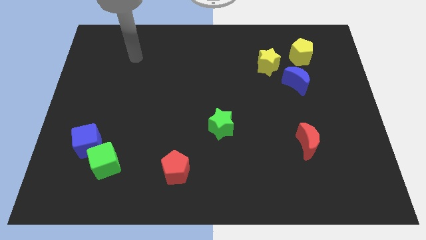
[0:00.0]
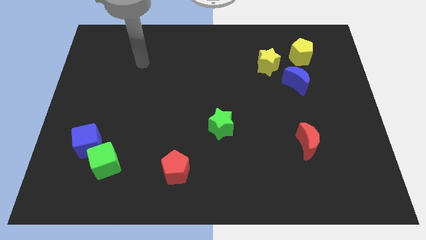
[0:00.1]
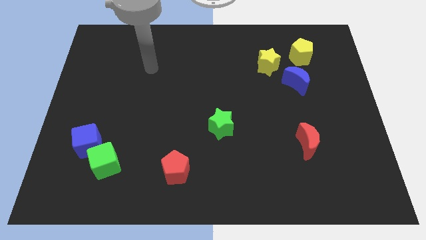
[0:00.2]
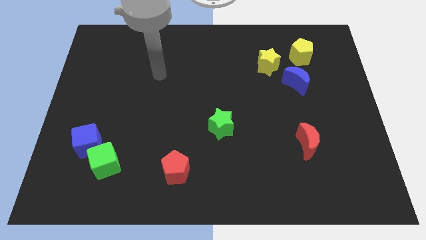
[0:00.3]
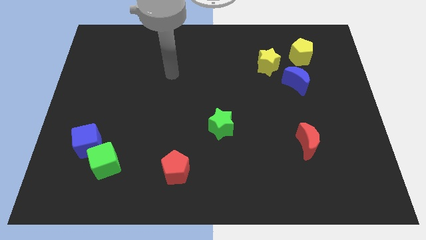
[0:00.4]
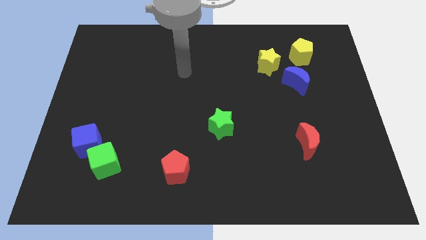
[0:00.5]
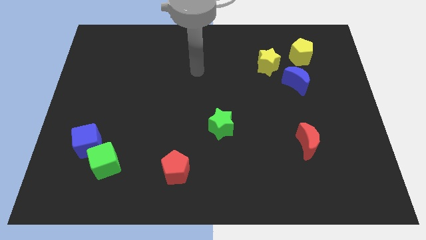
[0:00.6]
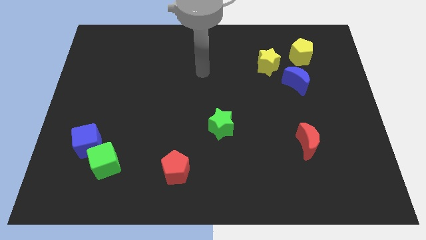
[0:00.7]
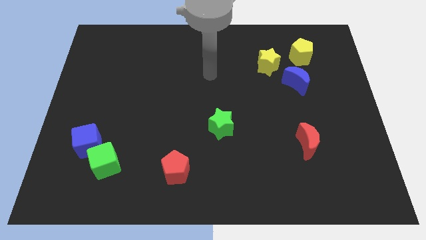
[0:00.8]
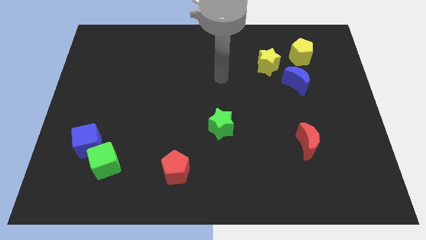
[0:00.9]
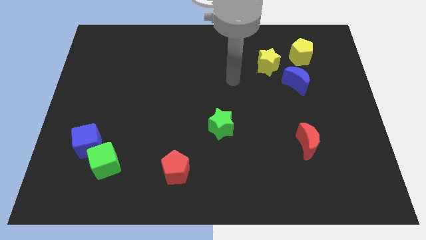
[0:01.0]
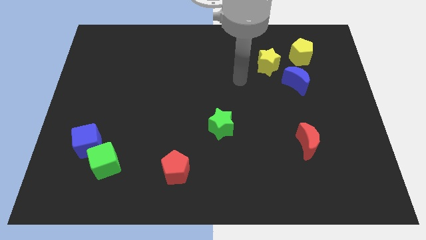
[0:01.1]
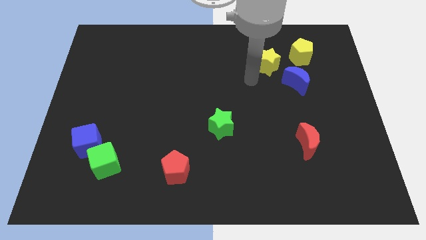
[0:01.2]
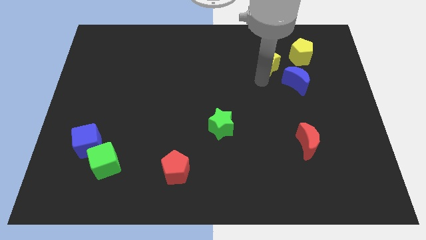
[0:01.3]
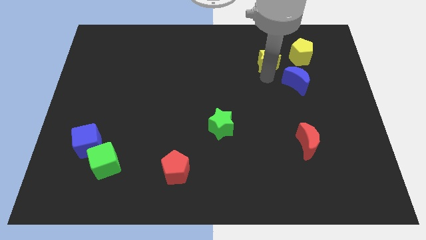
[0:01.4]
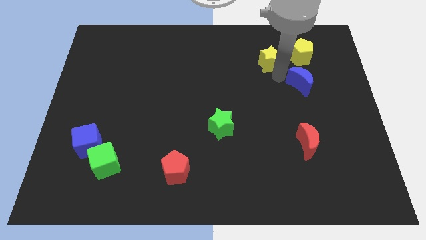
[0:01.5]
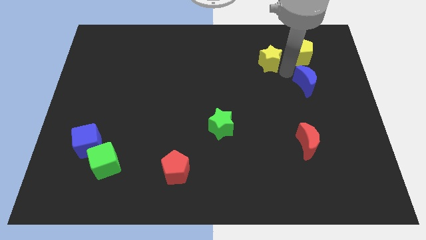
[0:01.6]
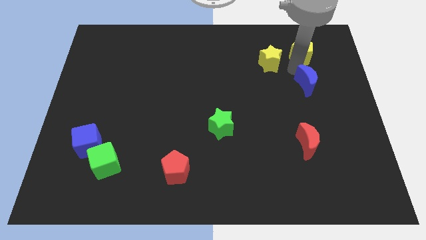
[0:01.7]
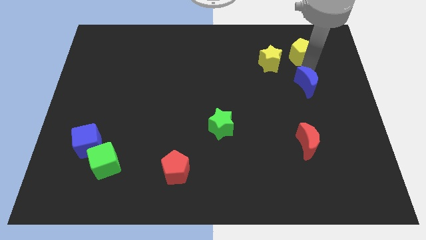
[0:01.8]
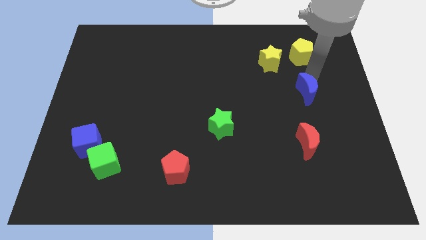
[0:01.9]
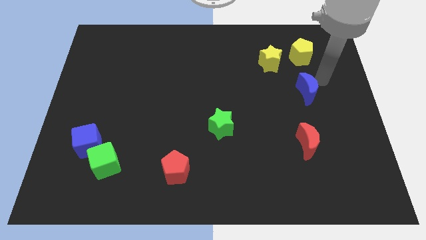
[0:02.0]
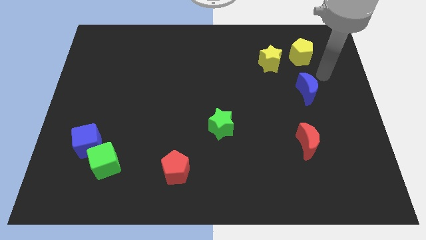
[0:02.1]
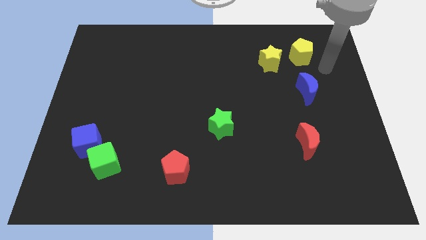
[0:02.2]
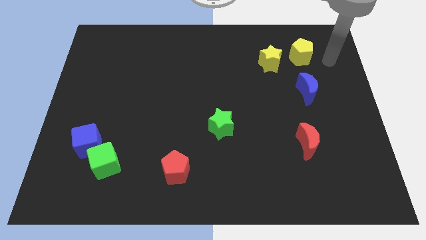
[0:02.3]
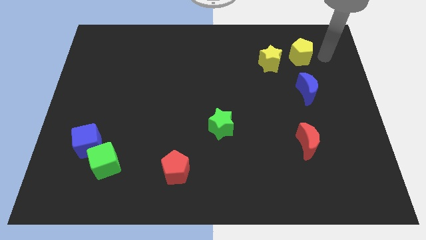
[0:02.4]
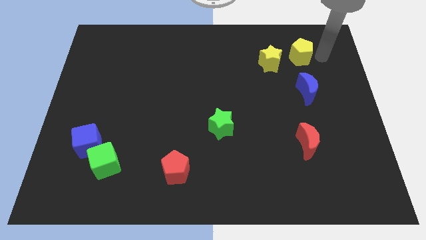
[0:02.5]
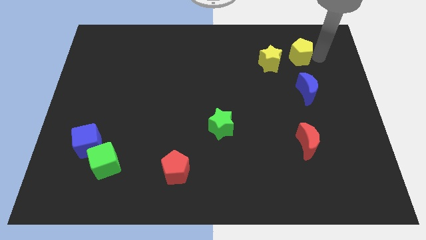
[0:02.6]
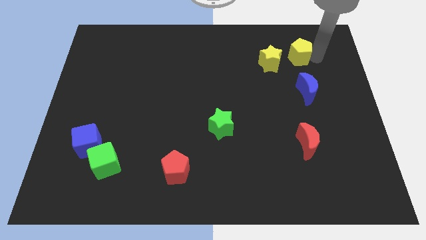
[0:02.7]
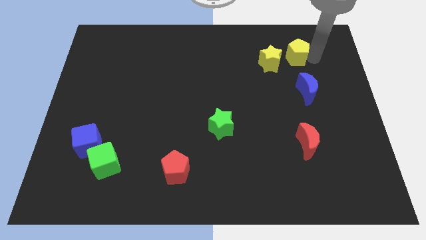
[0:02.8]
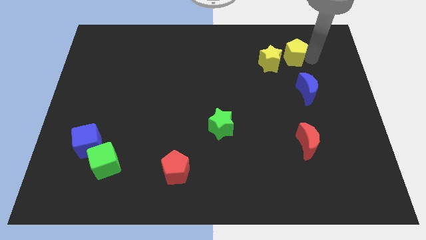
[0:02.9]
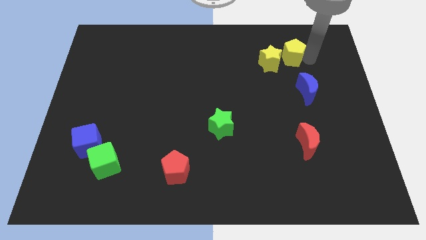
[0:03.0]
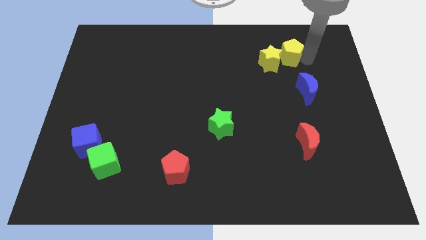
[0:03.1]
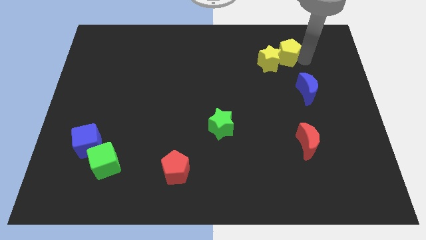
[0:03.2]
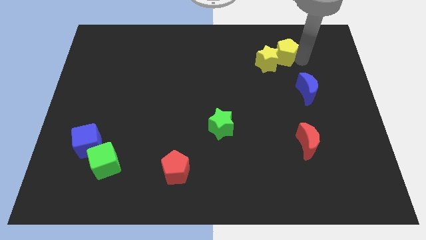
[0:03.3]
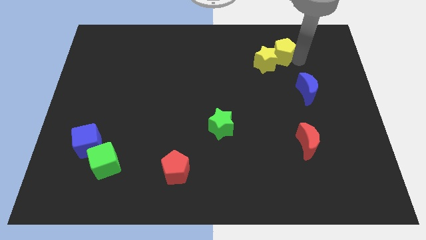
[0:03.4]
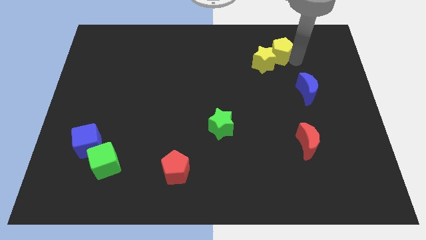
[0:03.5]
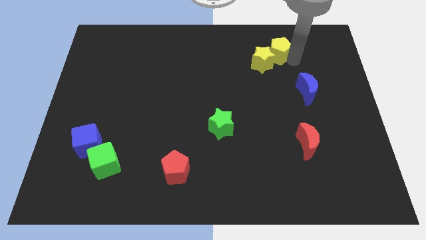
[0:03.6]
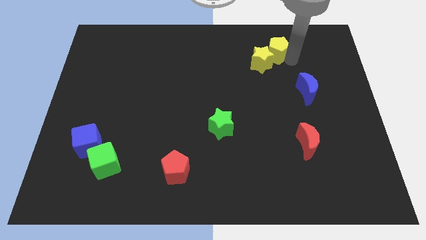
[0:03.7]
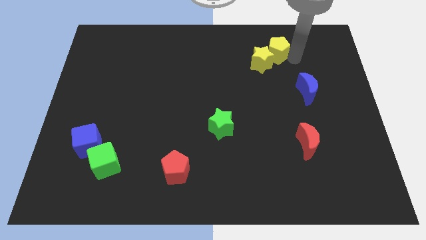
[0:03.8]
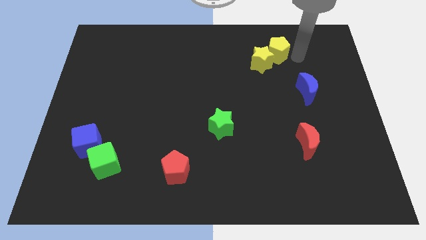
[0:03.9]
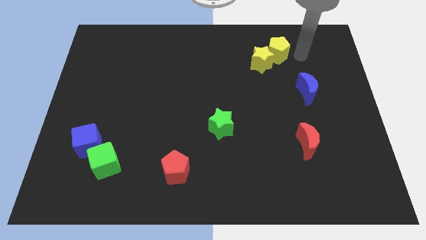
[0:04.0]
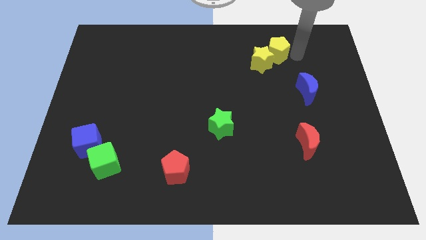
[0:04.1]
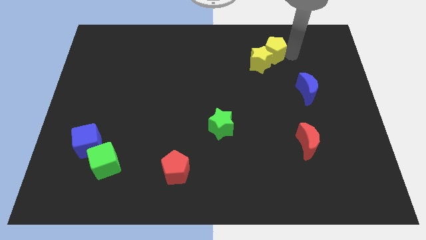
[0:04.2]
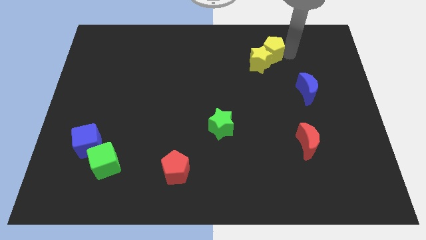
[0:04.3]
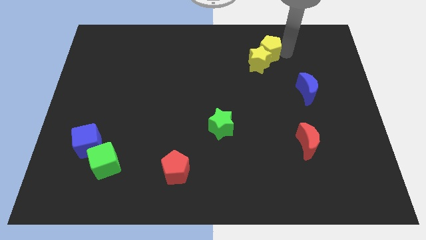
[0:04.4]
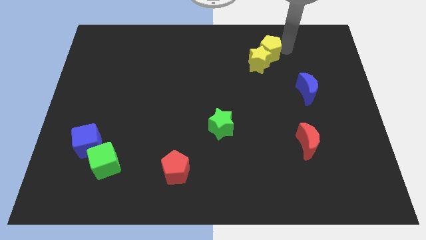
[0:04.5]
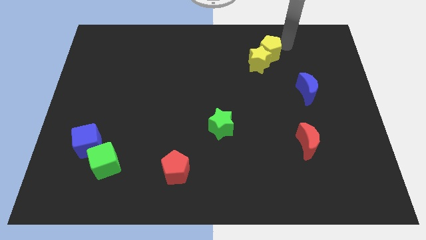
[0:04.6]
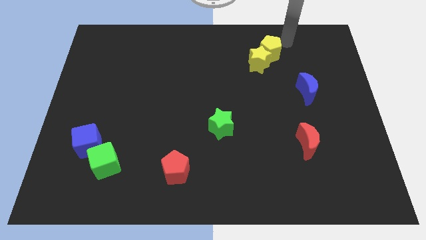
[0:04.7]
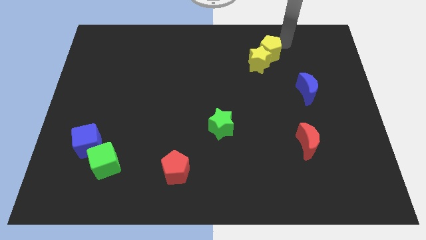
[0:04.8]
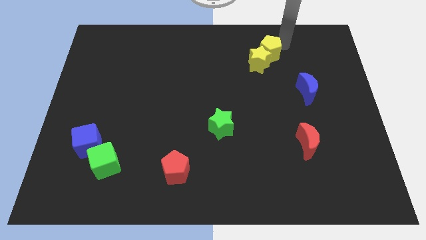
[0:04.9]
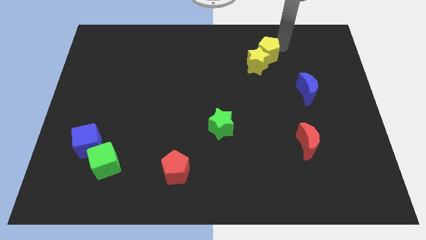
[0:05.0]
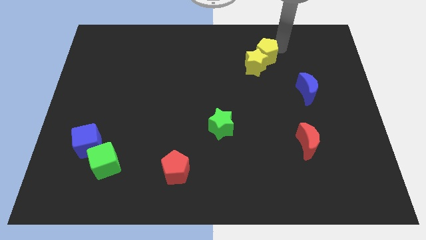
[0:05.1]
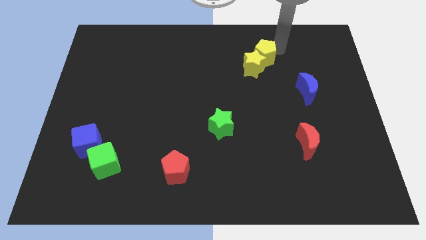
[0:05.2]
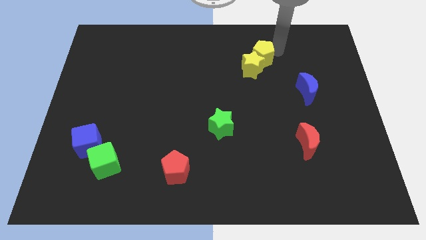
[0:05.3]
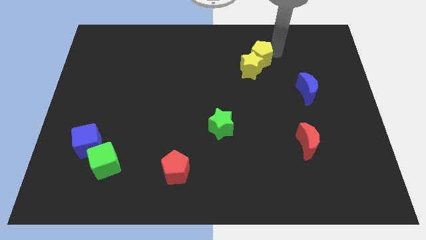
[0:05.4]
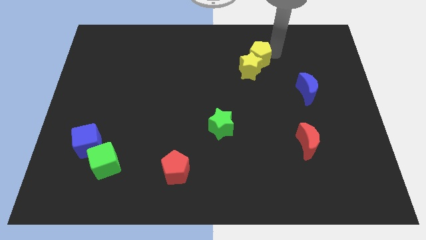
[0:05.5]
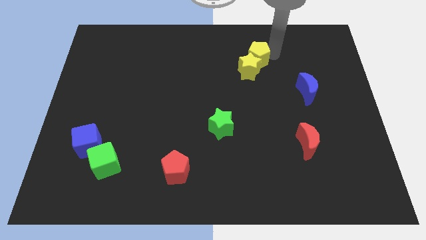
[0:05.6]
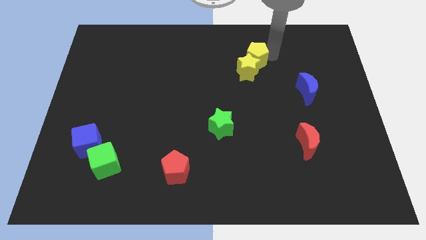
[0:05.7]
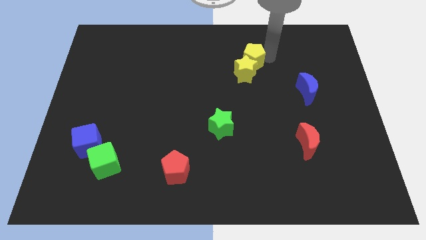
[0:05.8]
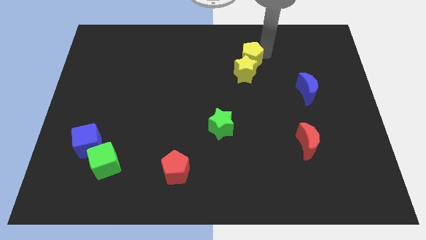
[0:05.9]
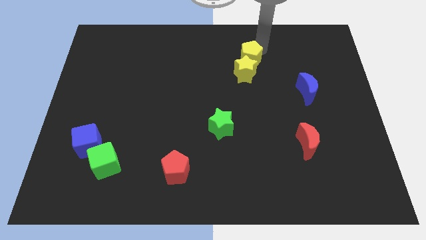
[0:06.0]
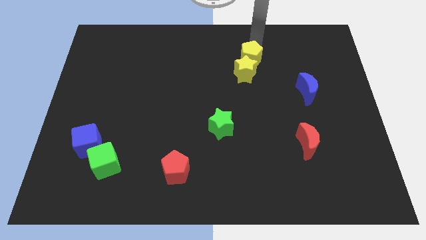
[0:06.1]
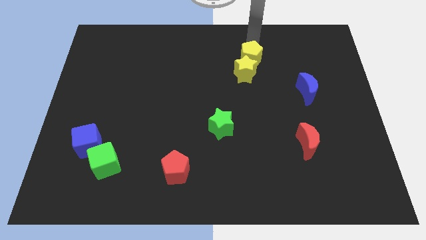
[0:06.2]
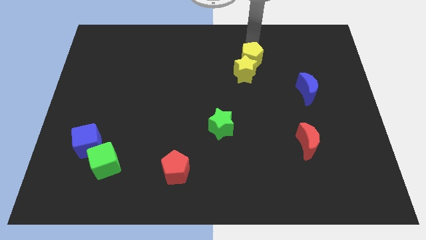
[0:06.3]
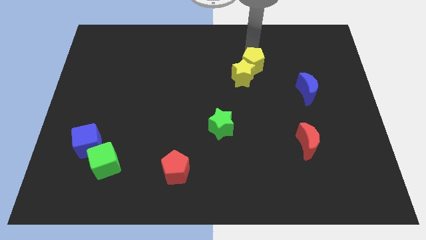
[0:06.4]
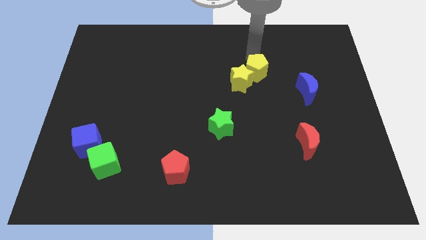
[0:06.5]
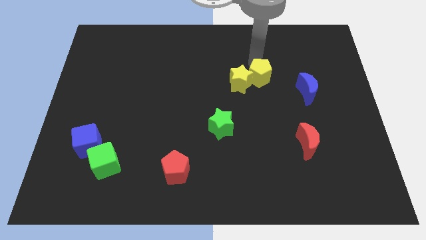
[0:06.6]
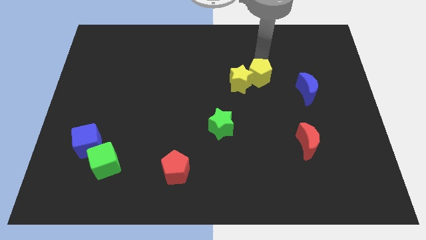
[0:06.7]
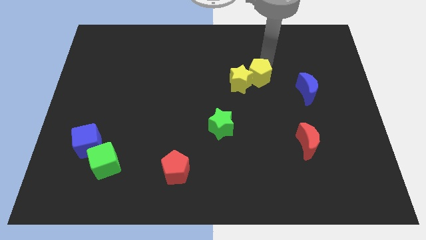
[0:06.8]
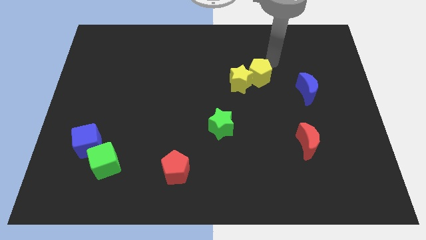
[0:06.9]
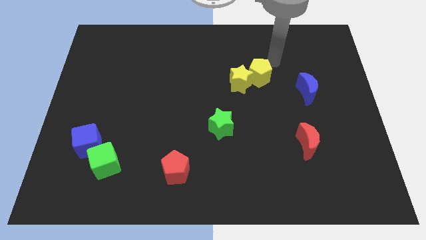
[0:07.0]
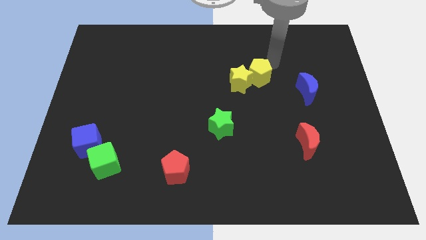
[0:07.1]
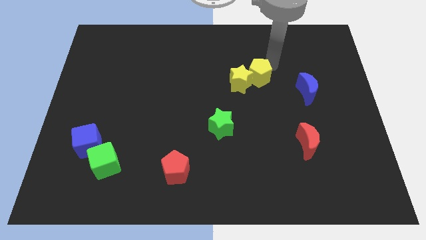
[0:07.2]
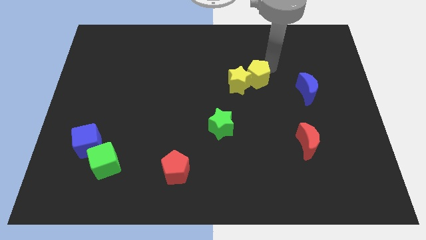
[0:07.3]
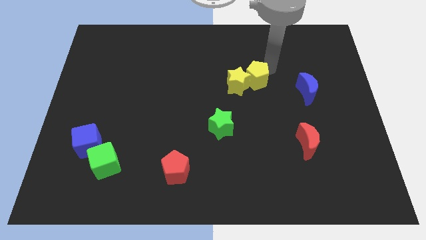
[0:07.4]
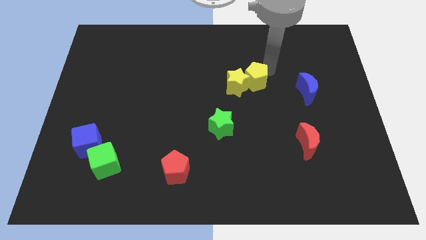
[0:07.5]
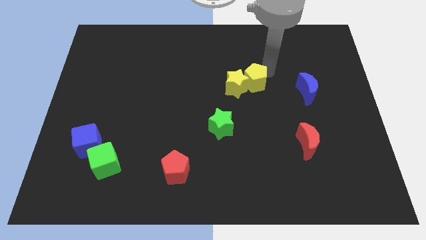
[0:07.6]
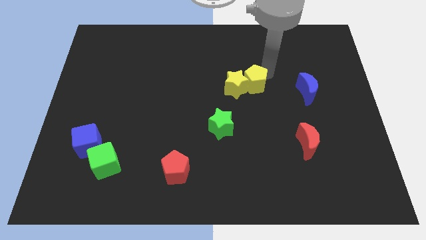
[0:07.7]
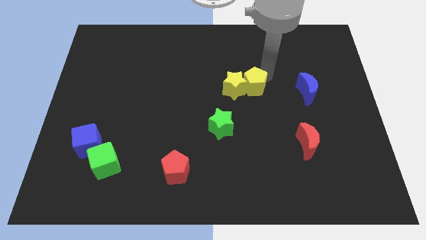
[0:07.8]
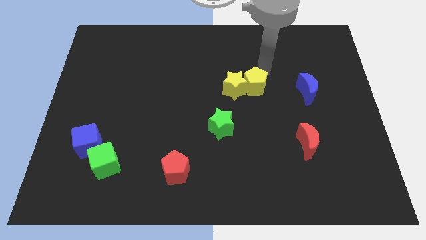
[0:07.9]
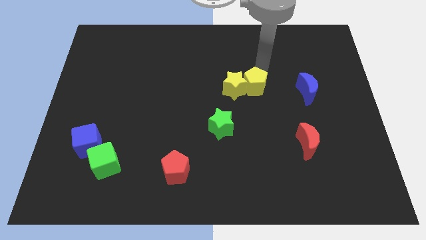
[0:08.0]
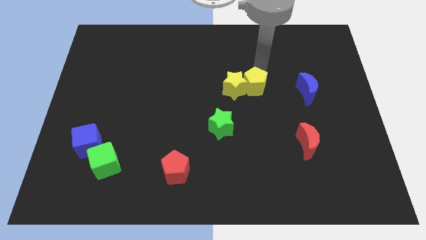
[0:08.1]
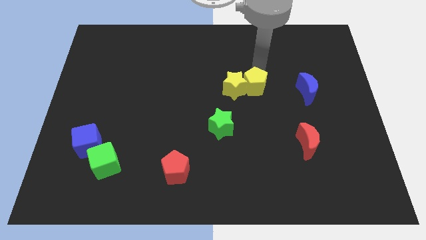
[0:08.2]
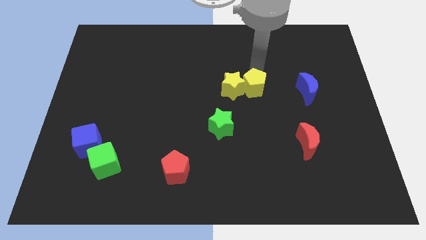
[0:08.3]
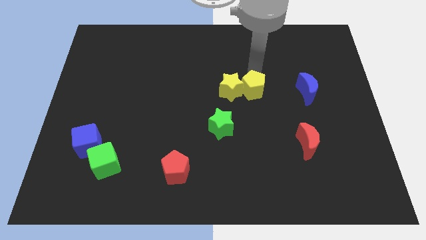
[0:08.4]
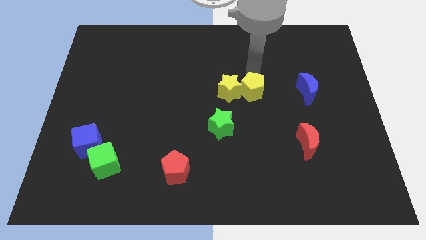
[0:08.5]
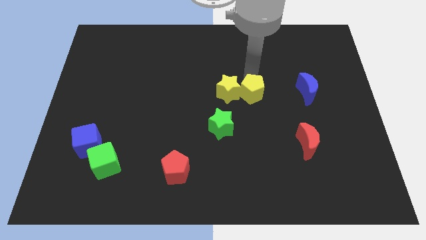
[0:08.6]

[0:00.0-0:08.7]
push the yellow pentagon to the top right of the green star
